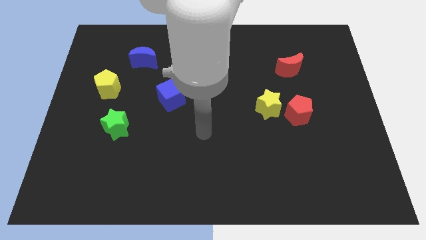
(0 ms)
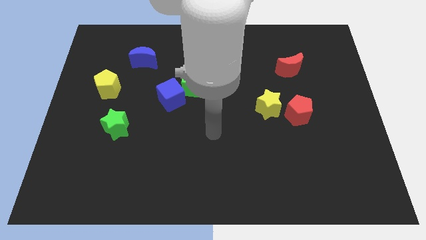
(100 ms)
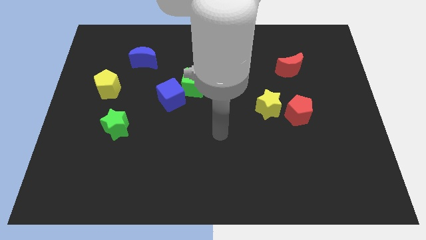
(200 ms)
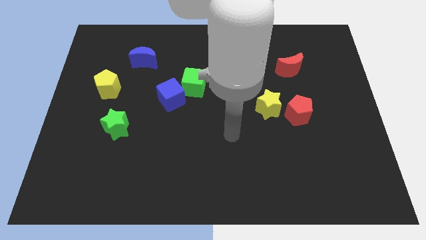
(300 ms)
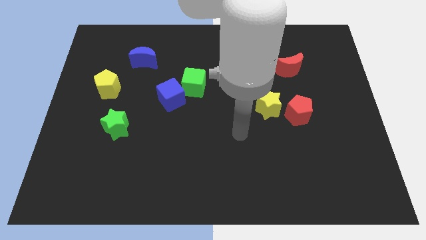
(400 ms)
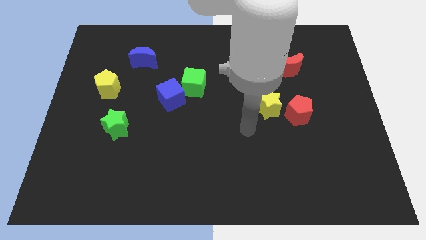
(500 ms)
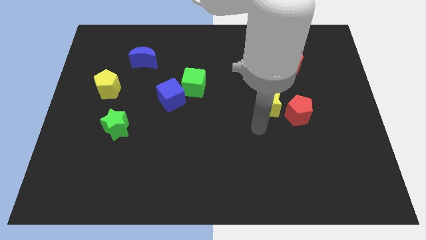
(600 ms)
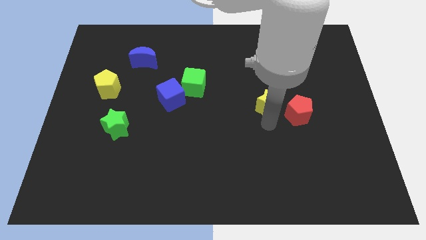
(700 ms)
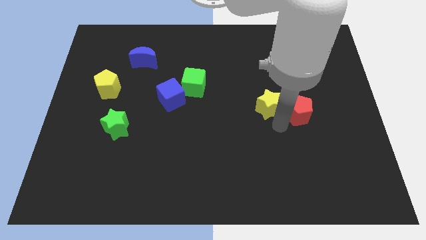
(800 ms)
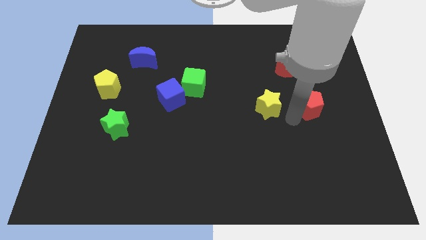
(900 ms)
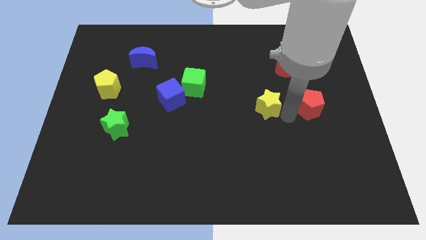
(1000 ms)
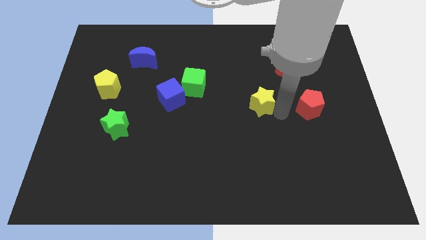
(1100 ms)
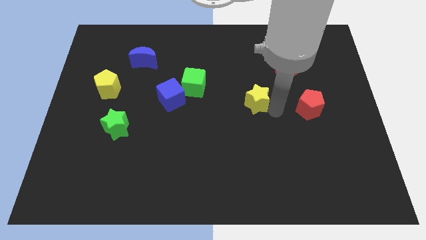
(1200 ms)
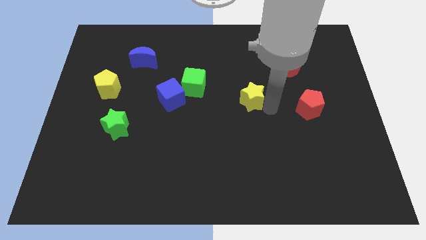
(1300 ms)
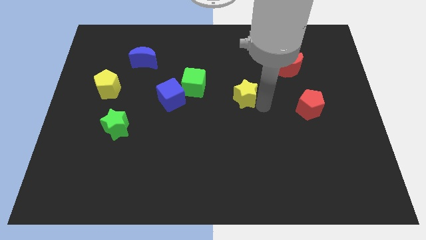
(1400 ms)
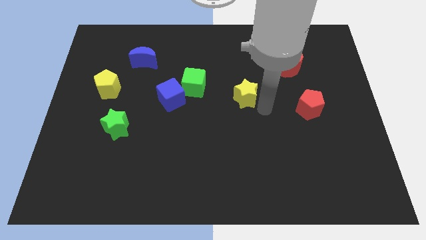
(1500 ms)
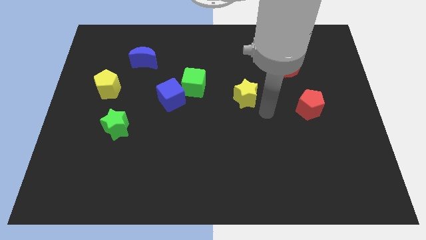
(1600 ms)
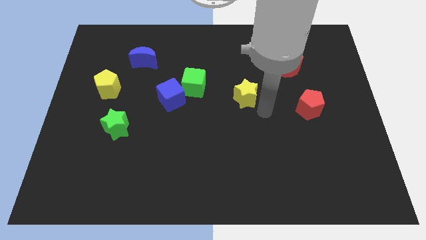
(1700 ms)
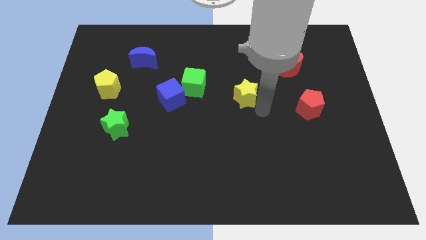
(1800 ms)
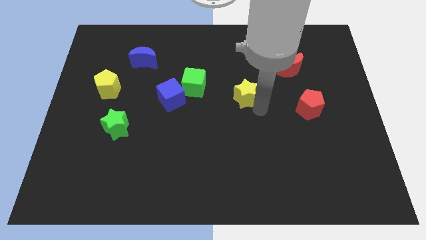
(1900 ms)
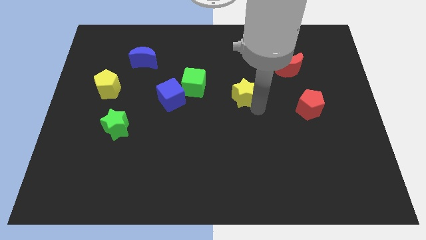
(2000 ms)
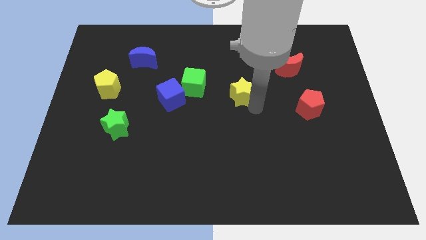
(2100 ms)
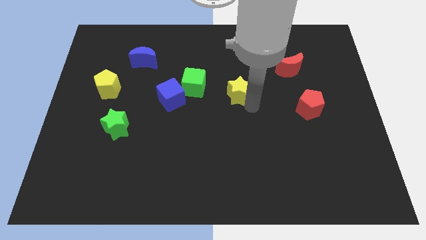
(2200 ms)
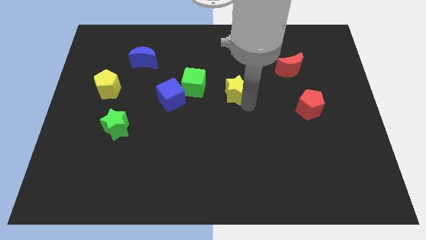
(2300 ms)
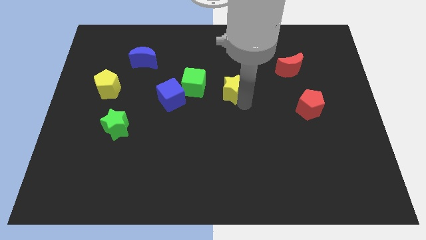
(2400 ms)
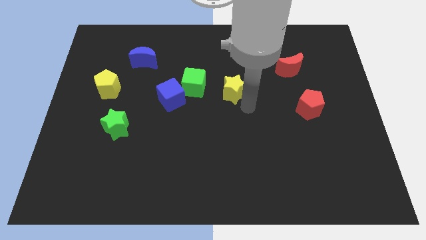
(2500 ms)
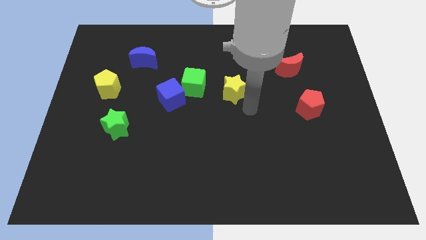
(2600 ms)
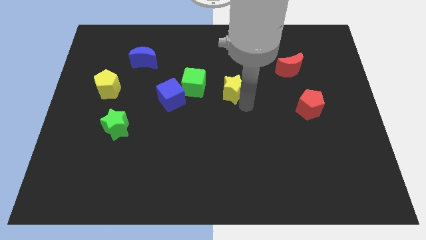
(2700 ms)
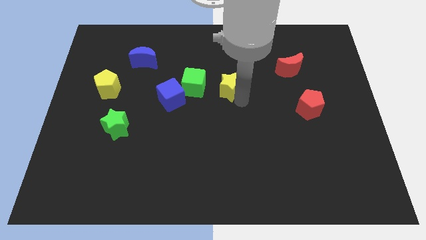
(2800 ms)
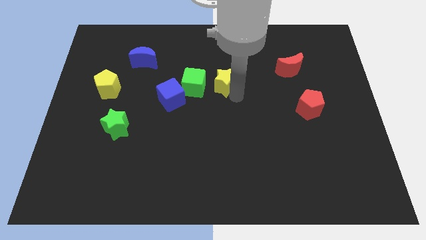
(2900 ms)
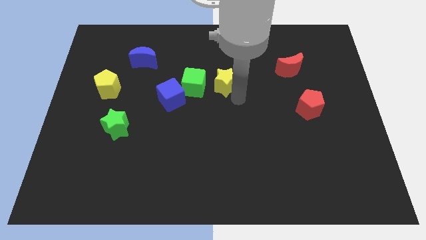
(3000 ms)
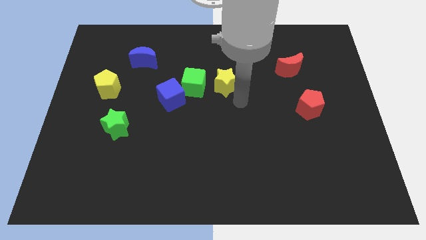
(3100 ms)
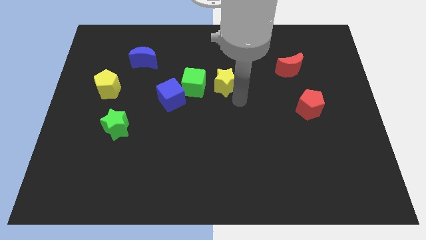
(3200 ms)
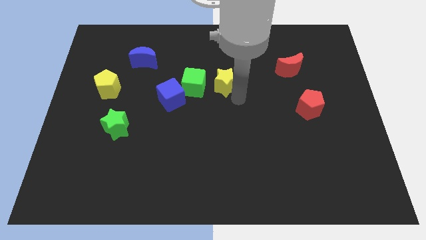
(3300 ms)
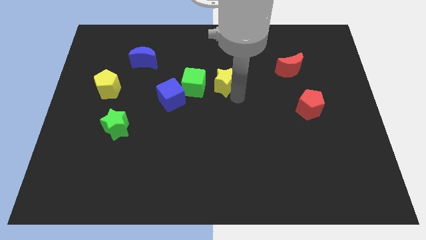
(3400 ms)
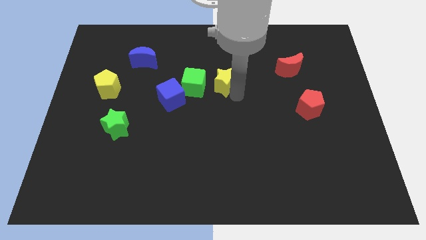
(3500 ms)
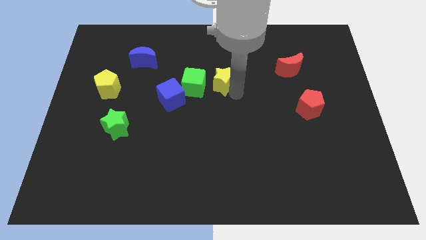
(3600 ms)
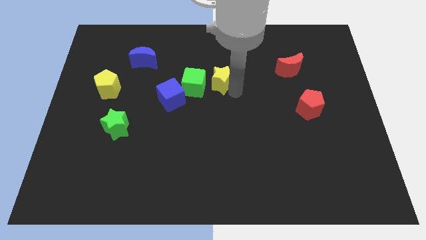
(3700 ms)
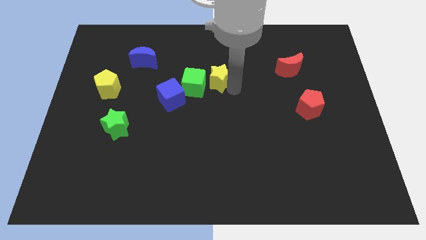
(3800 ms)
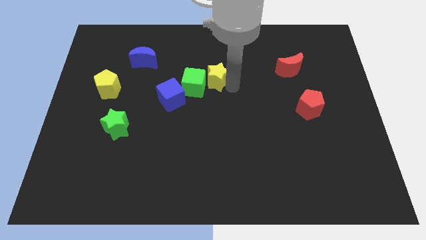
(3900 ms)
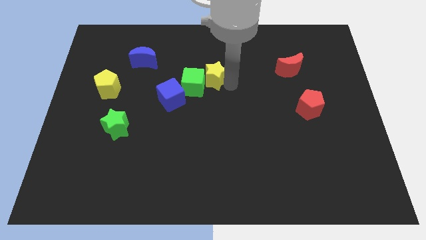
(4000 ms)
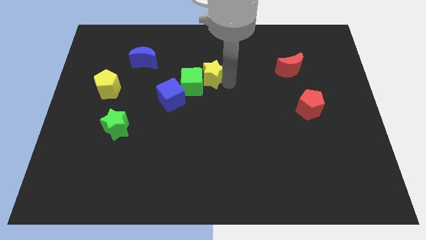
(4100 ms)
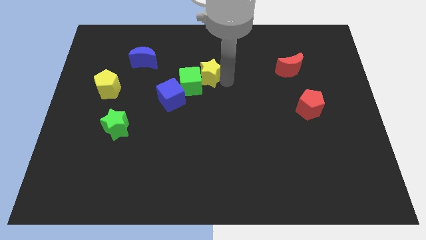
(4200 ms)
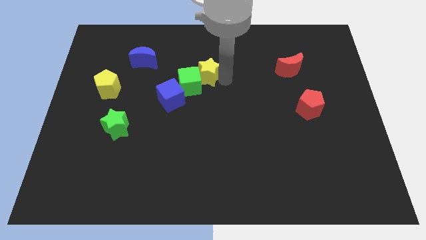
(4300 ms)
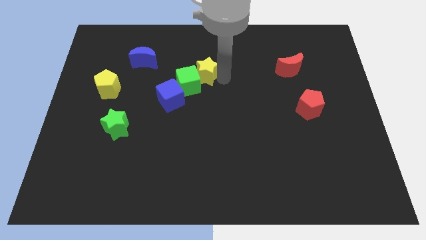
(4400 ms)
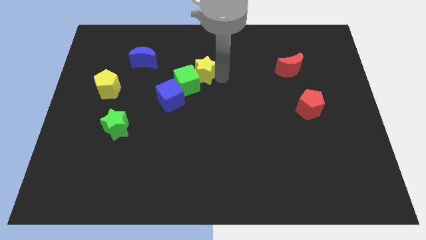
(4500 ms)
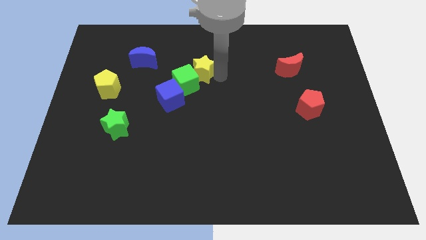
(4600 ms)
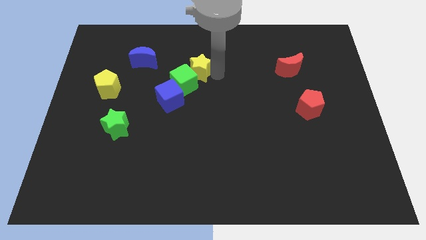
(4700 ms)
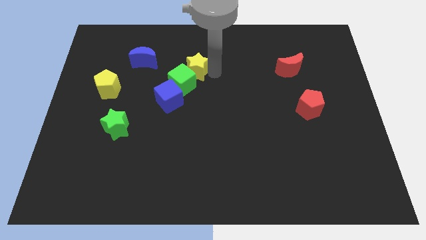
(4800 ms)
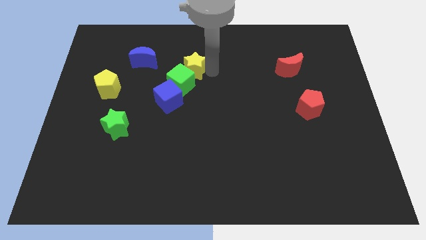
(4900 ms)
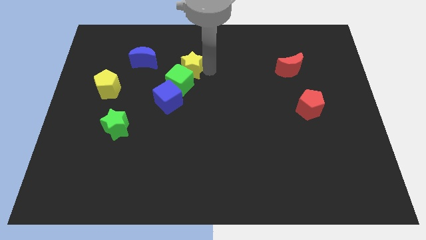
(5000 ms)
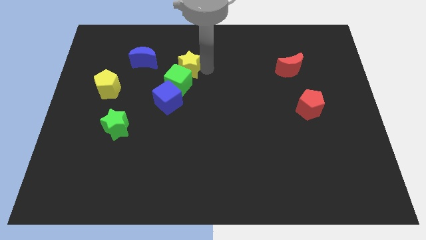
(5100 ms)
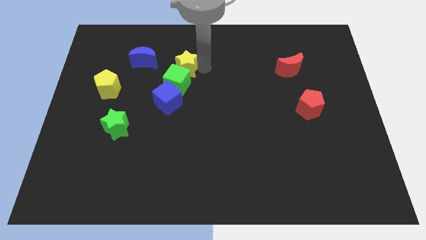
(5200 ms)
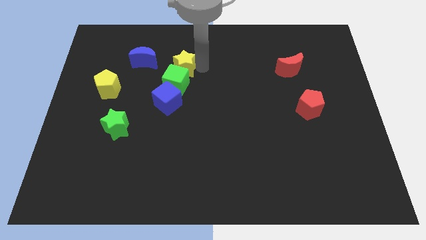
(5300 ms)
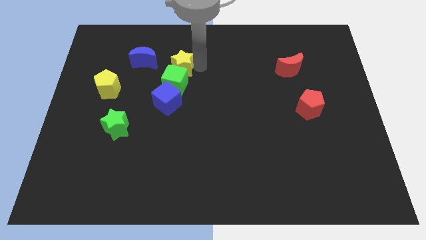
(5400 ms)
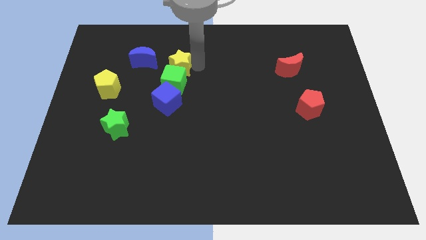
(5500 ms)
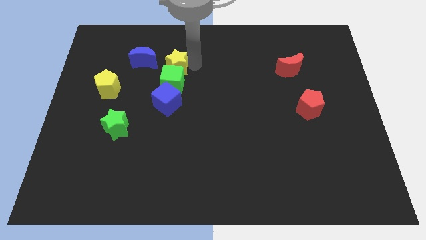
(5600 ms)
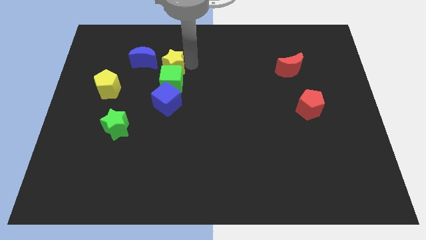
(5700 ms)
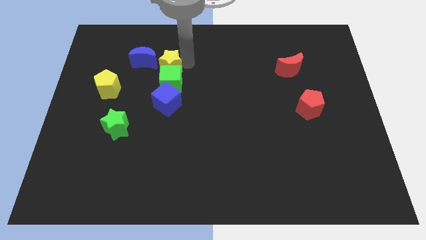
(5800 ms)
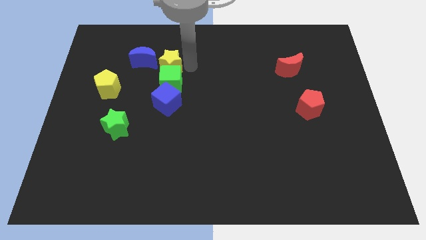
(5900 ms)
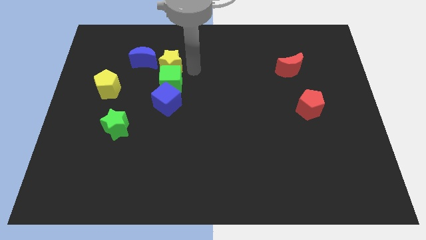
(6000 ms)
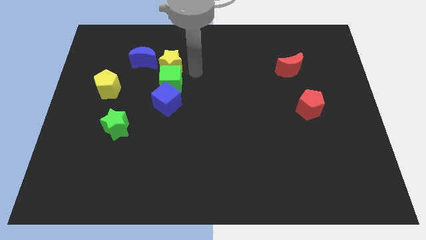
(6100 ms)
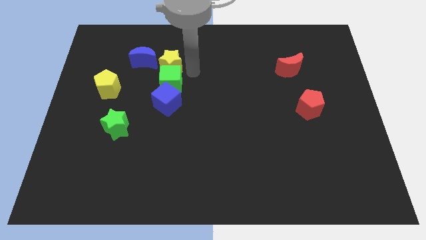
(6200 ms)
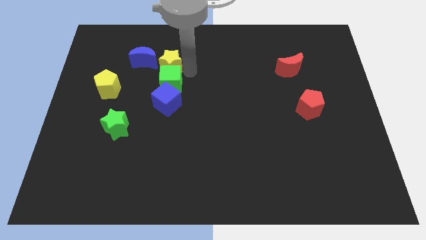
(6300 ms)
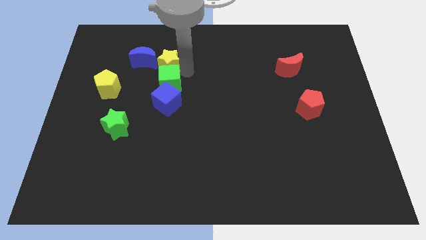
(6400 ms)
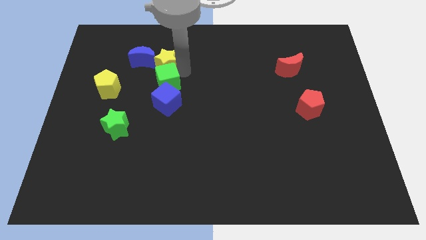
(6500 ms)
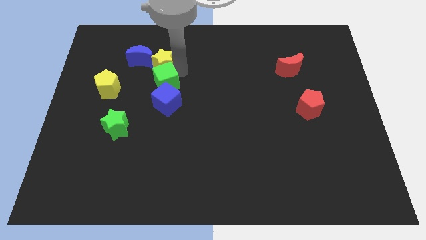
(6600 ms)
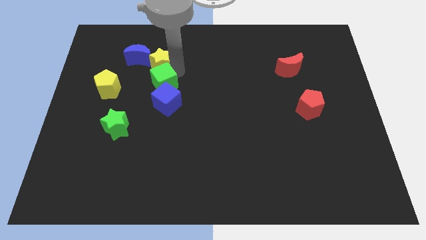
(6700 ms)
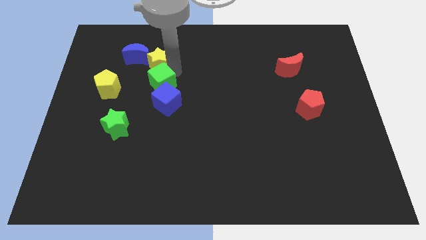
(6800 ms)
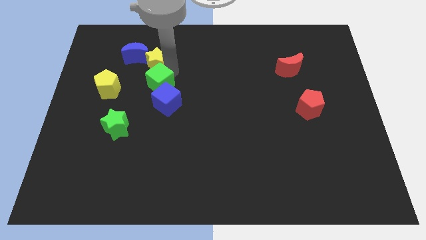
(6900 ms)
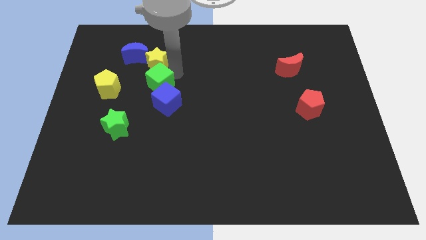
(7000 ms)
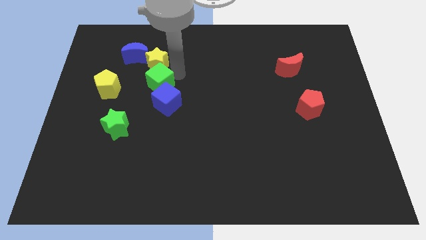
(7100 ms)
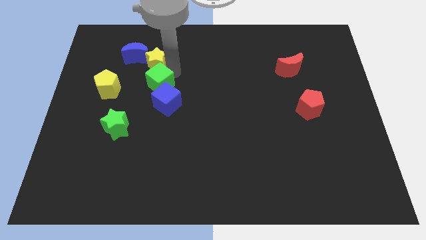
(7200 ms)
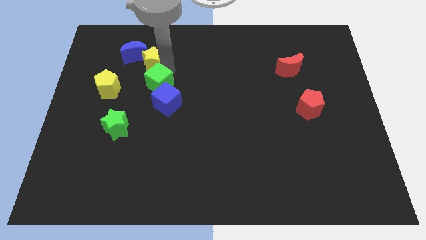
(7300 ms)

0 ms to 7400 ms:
move the yellow star next to the blue moon
